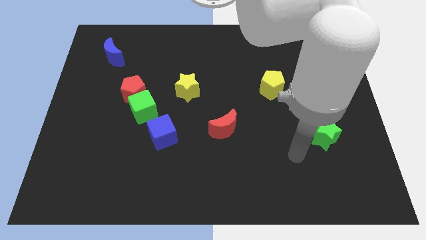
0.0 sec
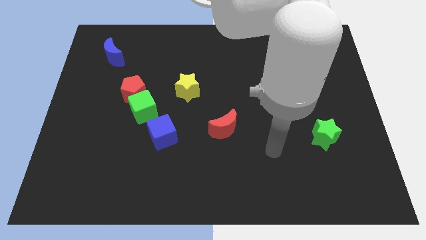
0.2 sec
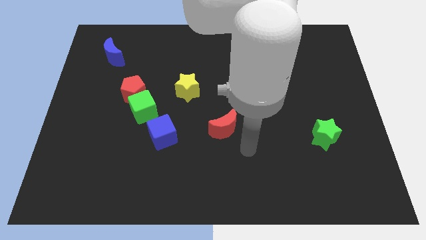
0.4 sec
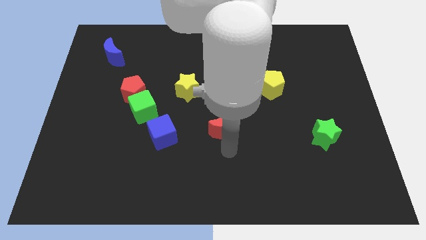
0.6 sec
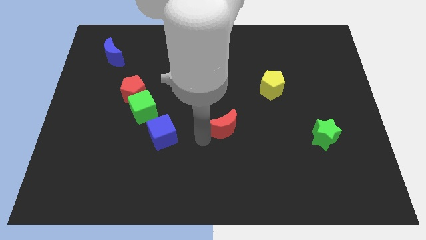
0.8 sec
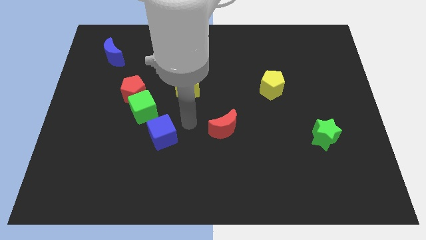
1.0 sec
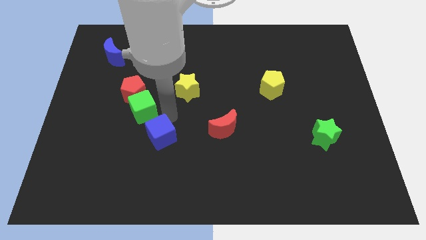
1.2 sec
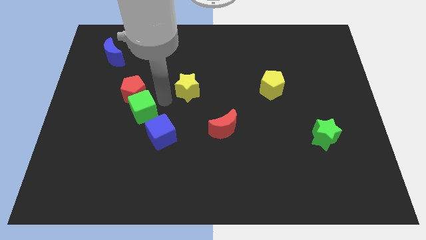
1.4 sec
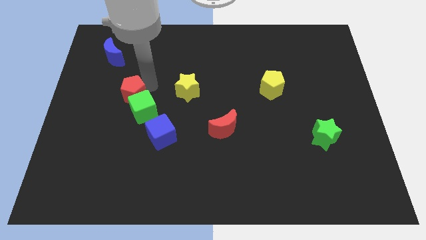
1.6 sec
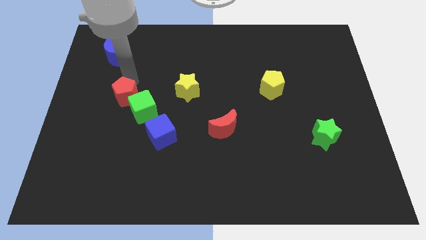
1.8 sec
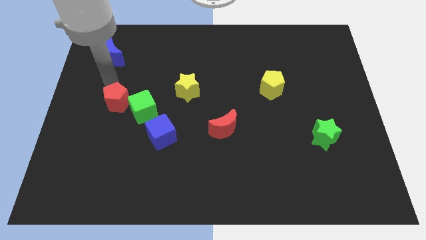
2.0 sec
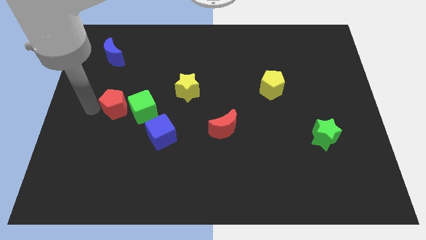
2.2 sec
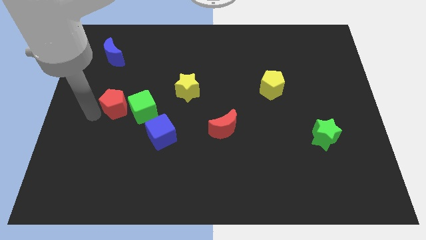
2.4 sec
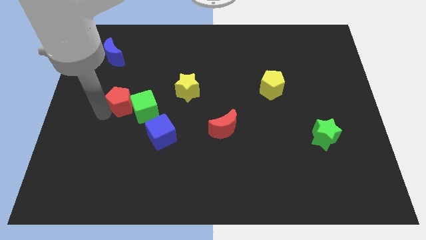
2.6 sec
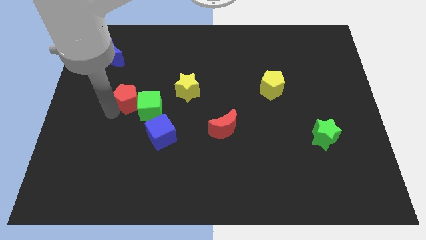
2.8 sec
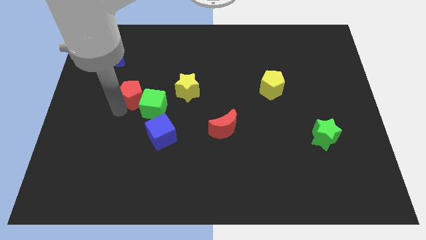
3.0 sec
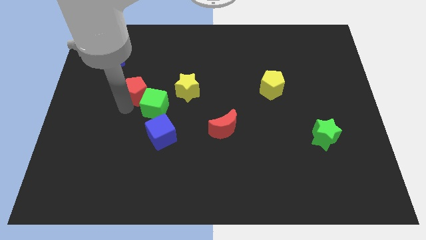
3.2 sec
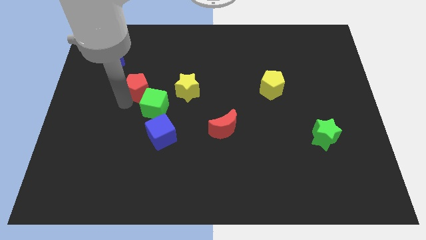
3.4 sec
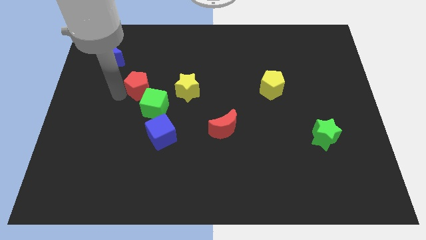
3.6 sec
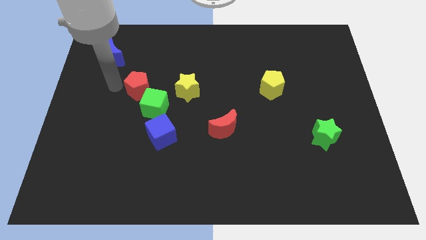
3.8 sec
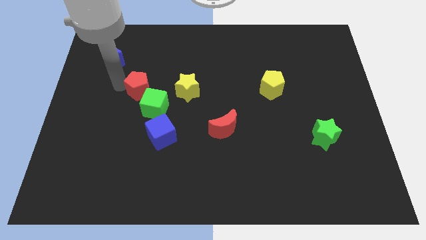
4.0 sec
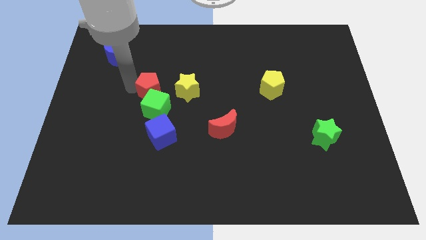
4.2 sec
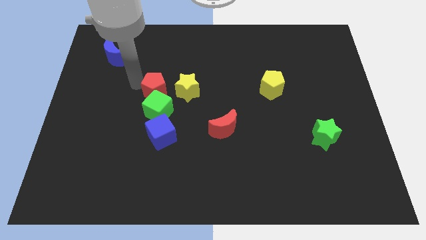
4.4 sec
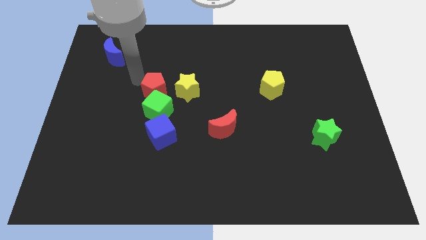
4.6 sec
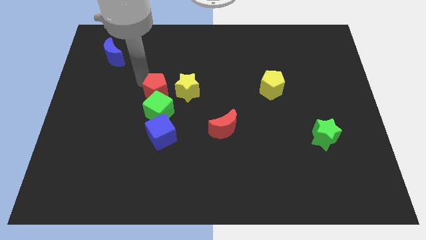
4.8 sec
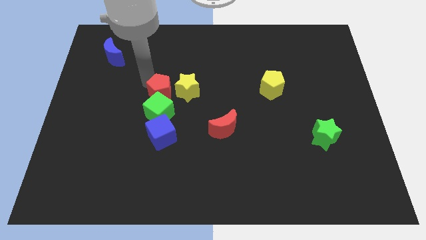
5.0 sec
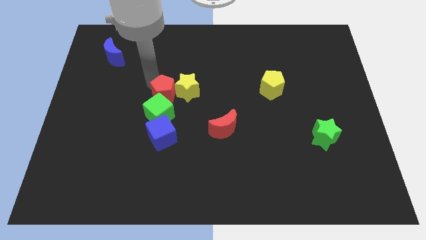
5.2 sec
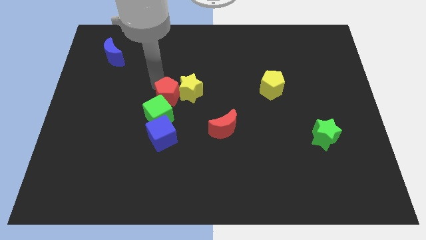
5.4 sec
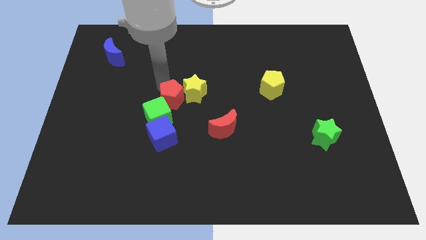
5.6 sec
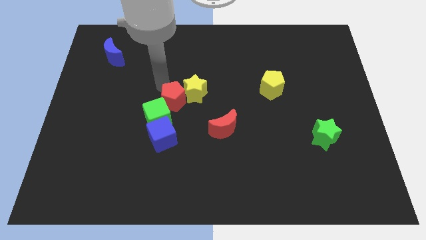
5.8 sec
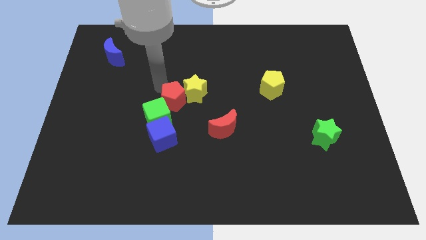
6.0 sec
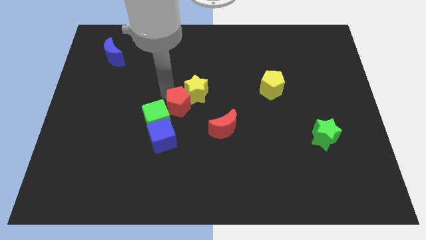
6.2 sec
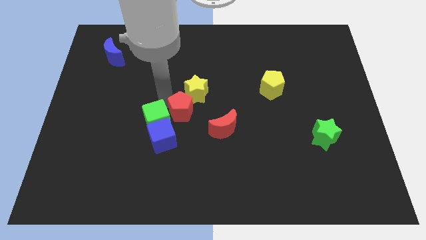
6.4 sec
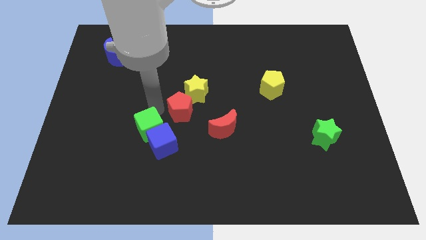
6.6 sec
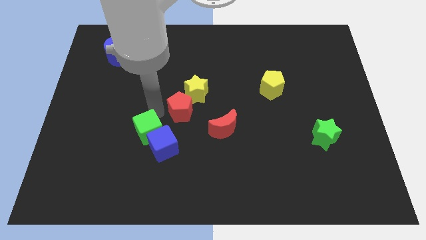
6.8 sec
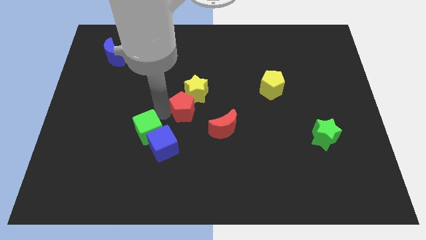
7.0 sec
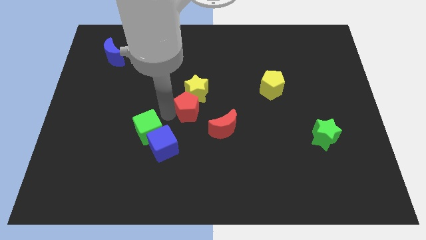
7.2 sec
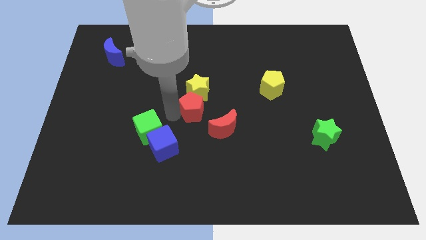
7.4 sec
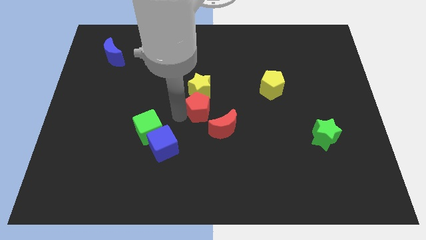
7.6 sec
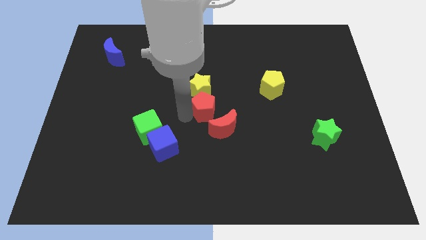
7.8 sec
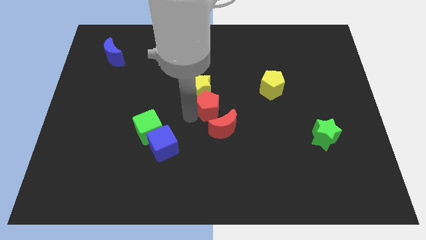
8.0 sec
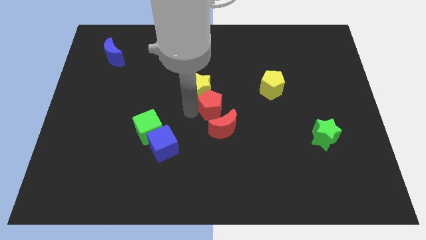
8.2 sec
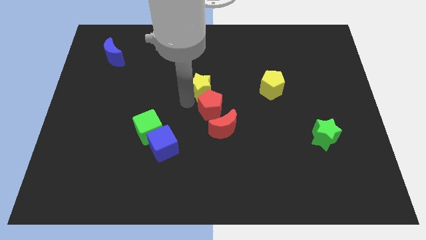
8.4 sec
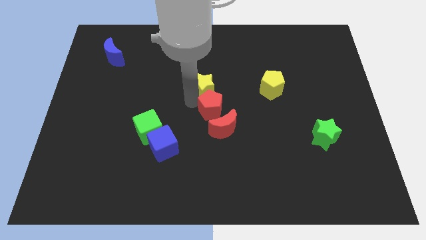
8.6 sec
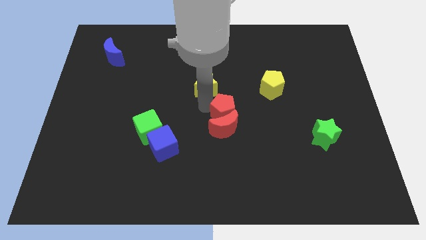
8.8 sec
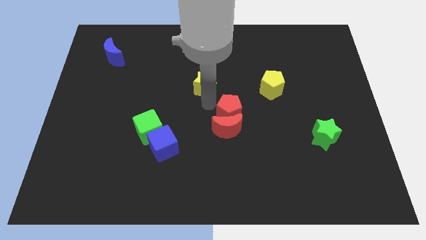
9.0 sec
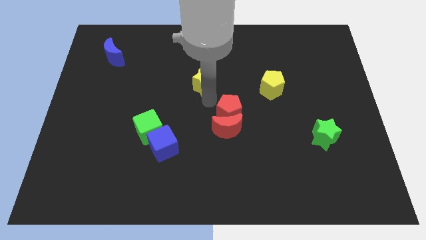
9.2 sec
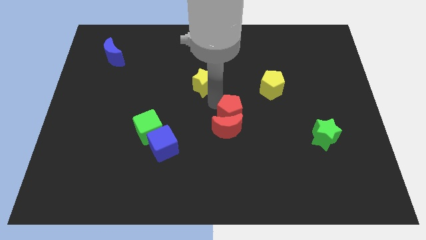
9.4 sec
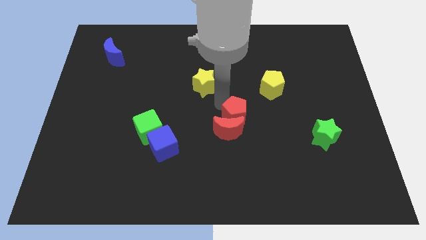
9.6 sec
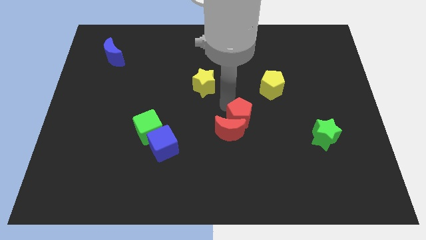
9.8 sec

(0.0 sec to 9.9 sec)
put the red pentagon just right of the red moon

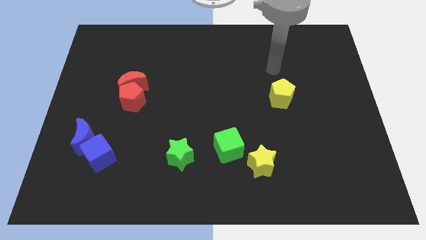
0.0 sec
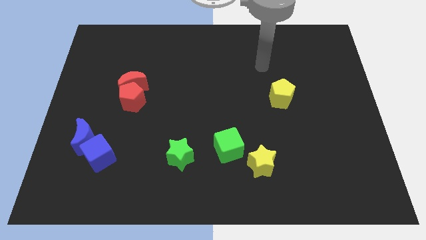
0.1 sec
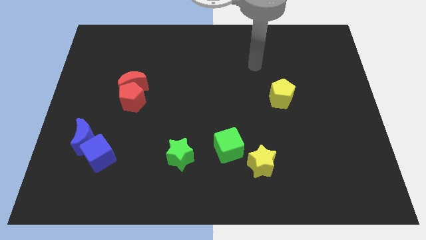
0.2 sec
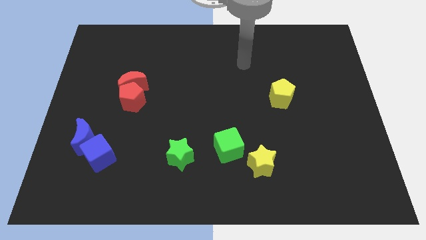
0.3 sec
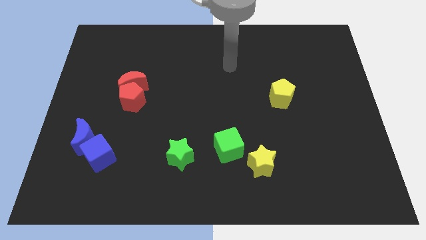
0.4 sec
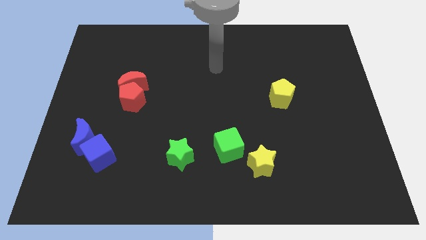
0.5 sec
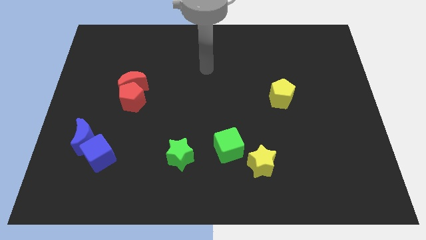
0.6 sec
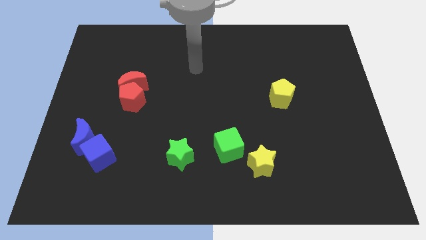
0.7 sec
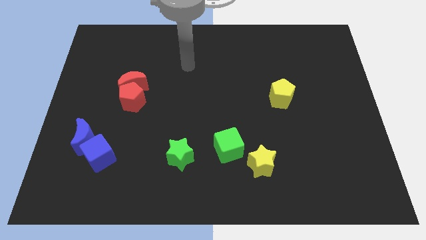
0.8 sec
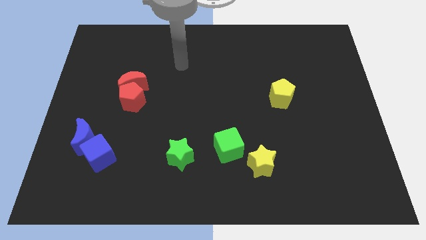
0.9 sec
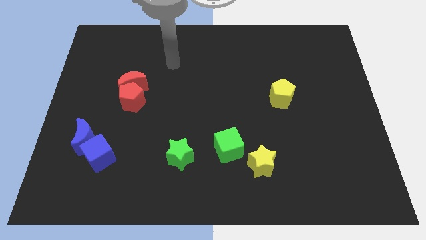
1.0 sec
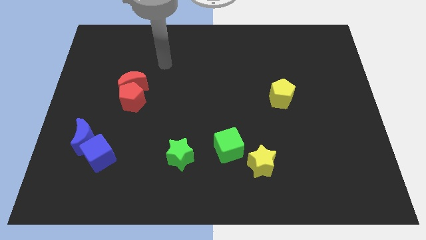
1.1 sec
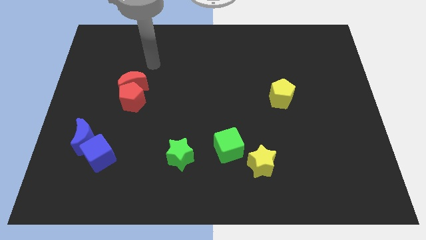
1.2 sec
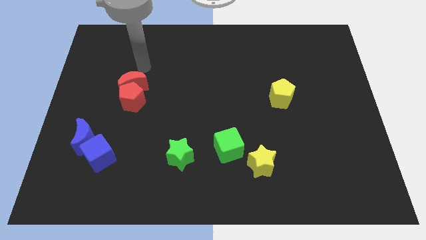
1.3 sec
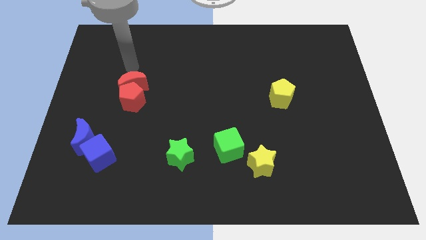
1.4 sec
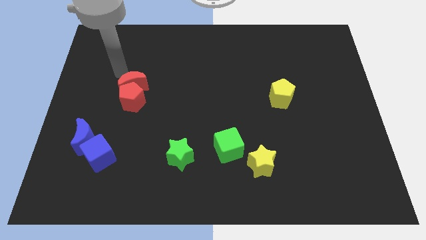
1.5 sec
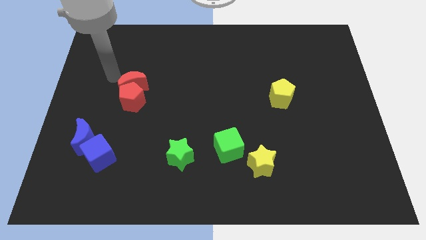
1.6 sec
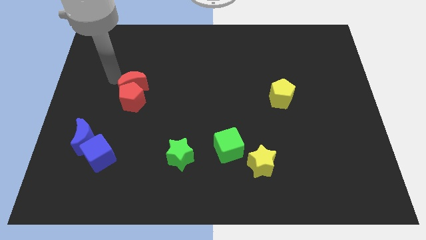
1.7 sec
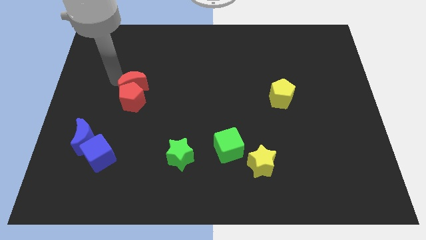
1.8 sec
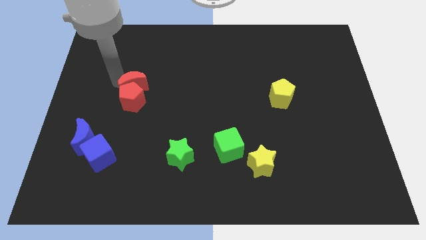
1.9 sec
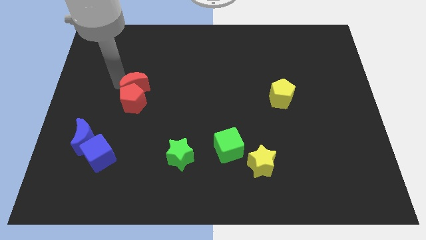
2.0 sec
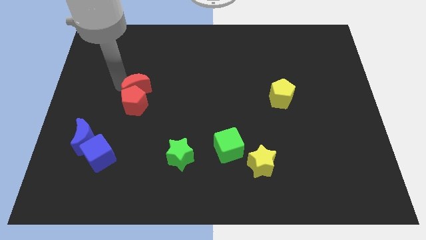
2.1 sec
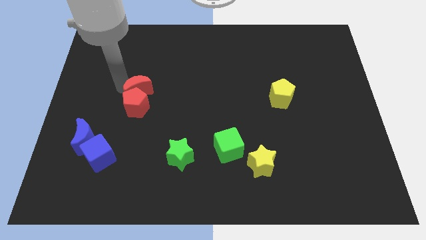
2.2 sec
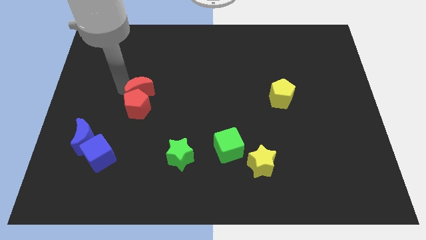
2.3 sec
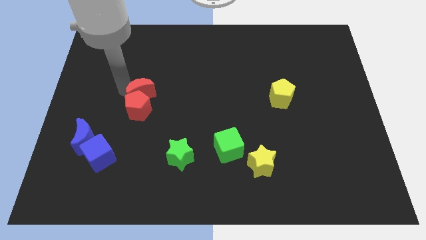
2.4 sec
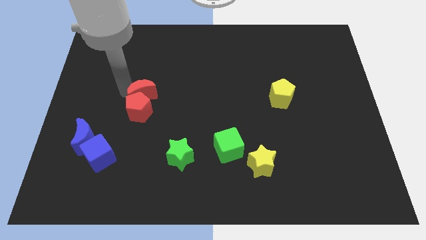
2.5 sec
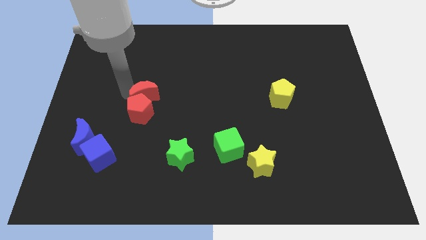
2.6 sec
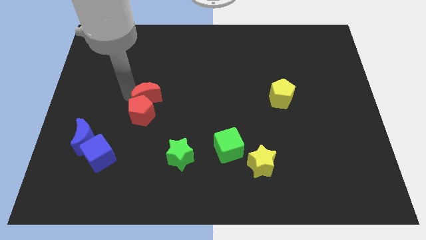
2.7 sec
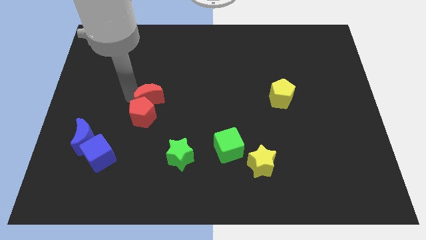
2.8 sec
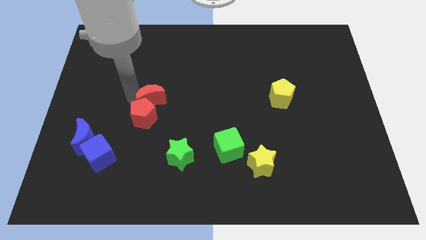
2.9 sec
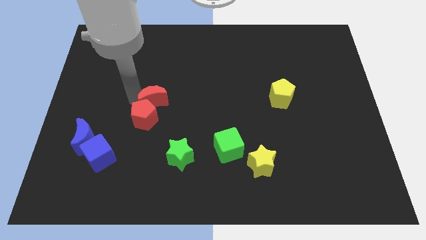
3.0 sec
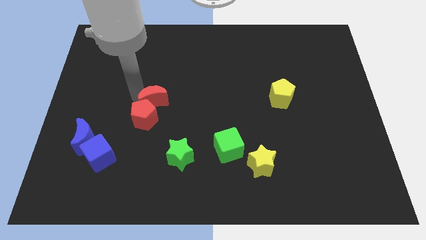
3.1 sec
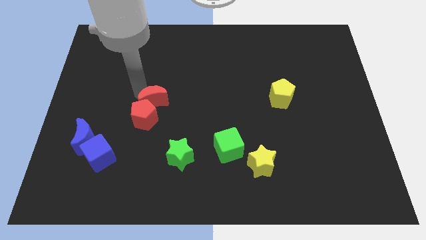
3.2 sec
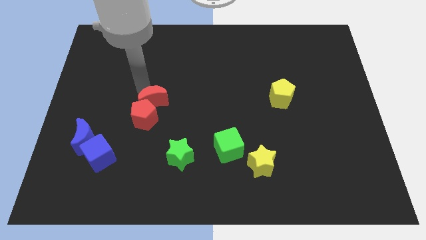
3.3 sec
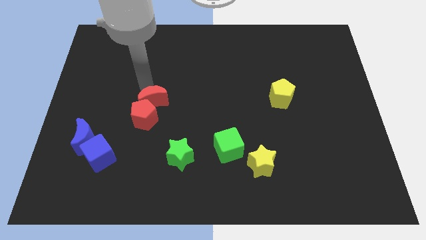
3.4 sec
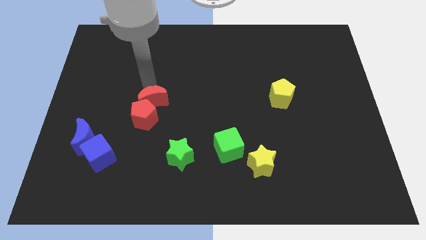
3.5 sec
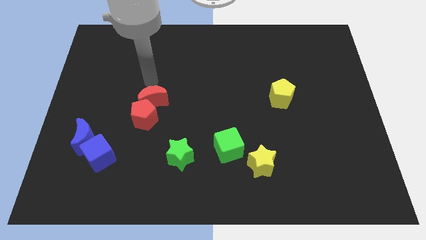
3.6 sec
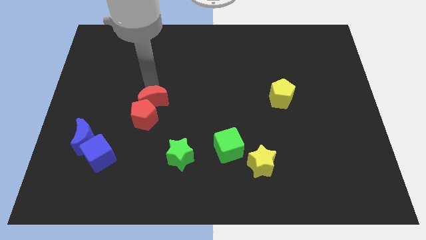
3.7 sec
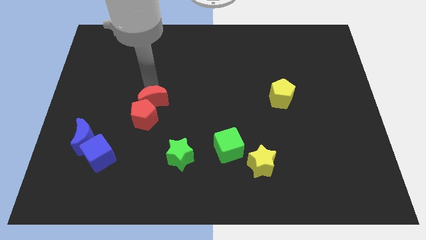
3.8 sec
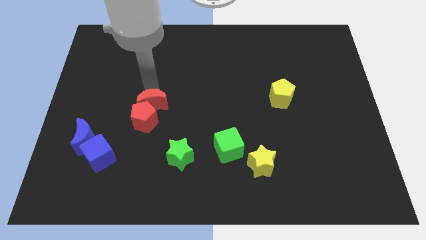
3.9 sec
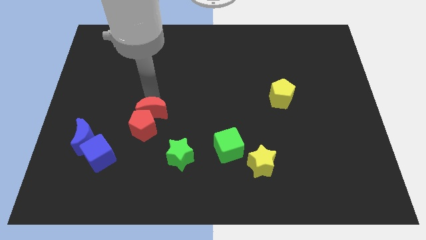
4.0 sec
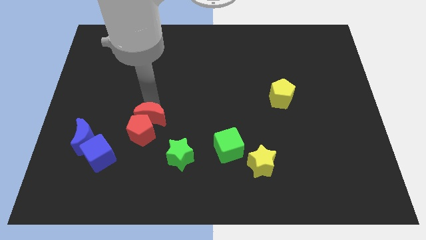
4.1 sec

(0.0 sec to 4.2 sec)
push the red moon to the top left of the green star
